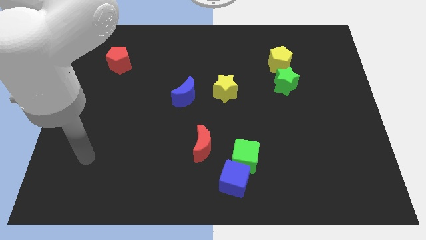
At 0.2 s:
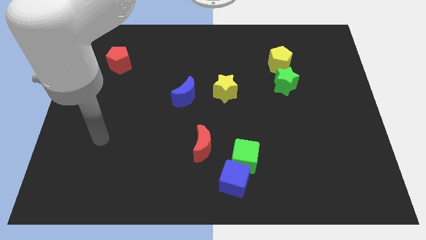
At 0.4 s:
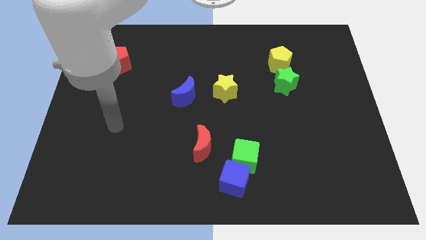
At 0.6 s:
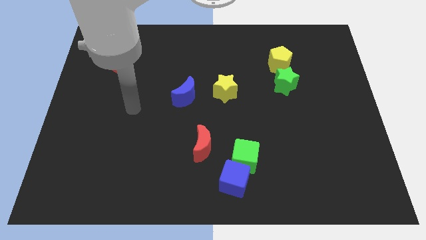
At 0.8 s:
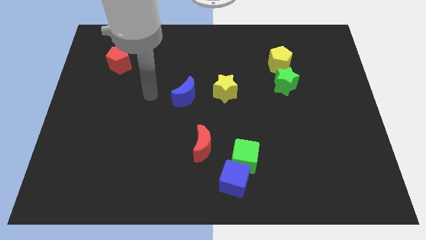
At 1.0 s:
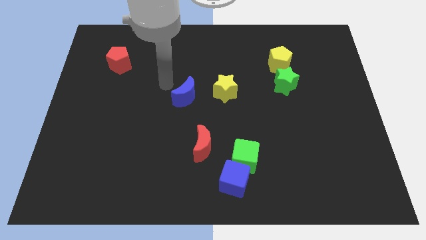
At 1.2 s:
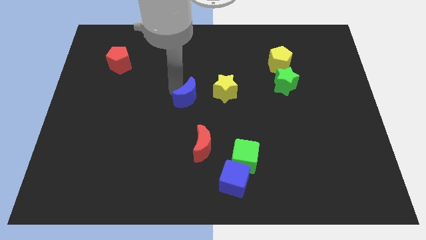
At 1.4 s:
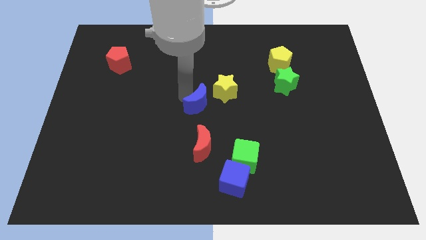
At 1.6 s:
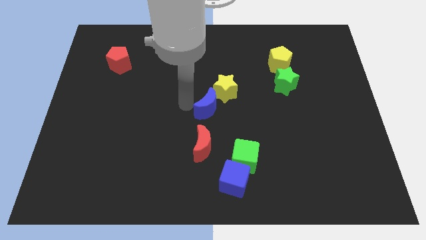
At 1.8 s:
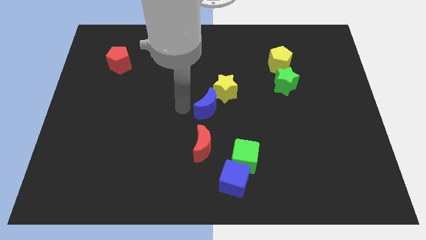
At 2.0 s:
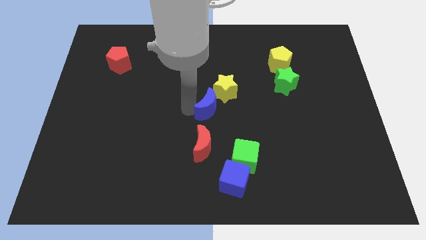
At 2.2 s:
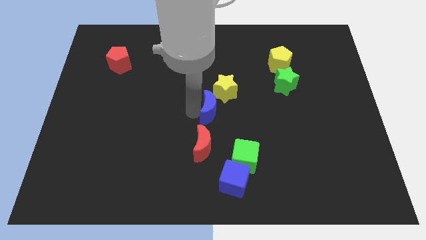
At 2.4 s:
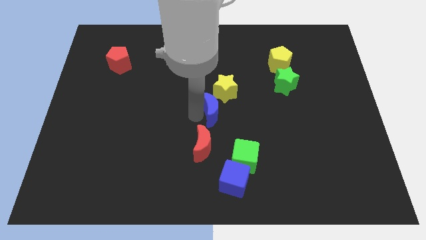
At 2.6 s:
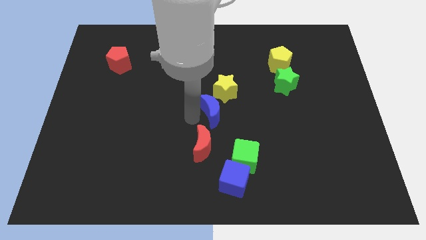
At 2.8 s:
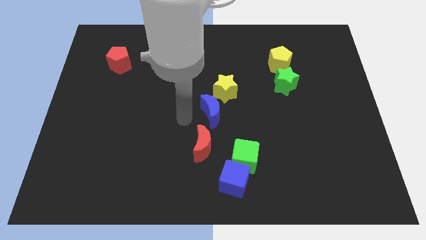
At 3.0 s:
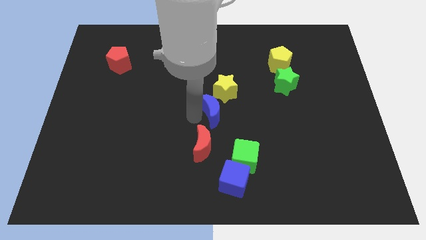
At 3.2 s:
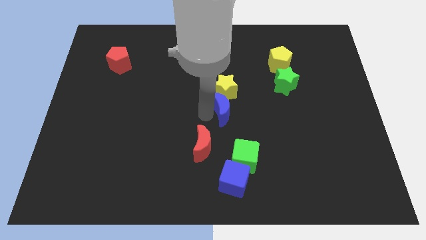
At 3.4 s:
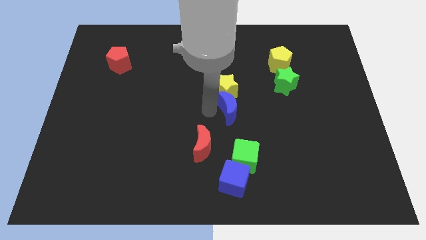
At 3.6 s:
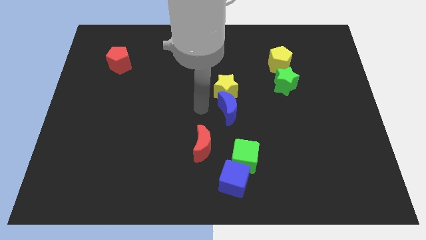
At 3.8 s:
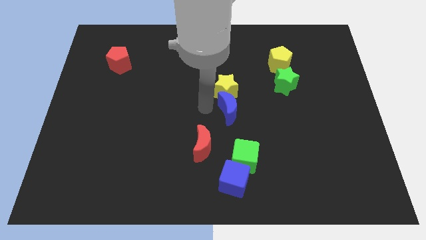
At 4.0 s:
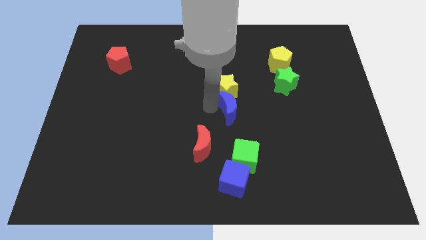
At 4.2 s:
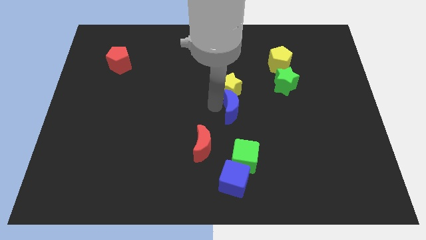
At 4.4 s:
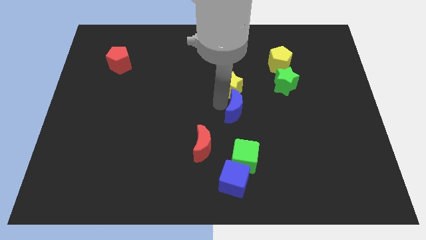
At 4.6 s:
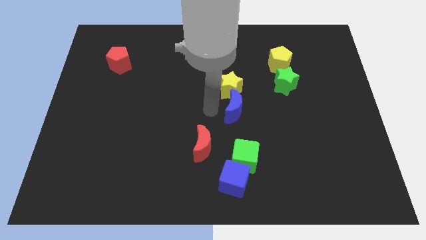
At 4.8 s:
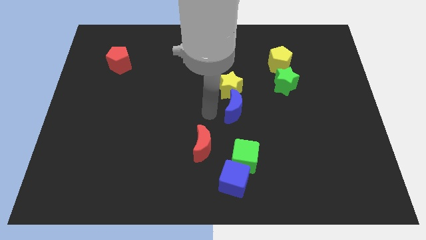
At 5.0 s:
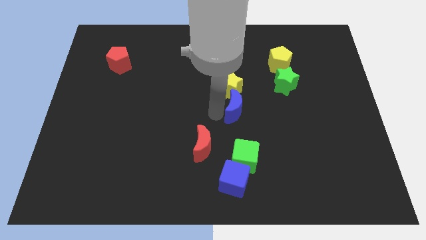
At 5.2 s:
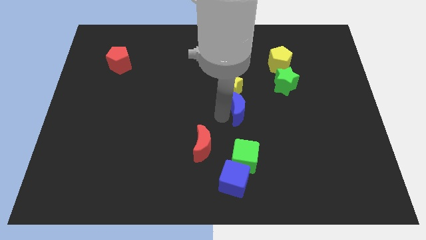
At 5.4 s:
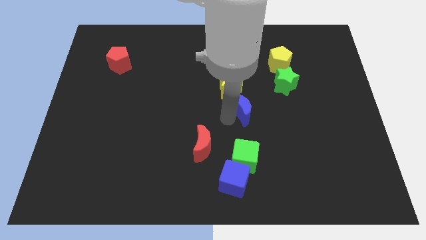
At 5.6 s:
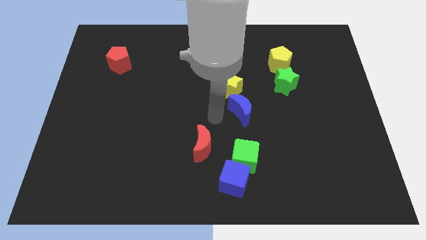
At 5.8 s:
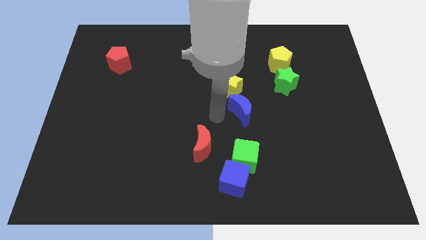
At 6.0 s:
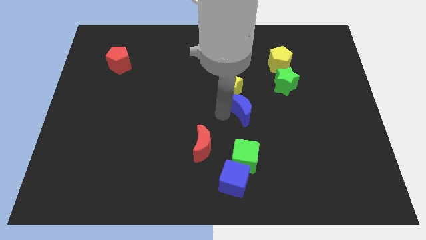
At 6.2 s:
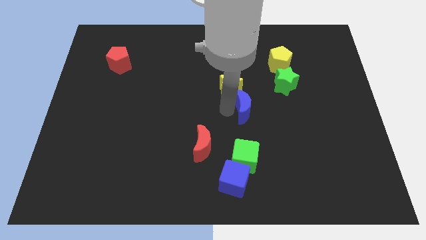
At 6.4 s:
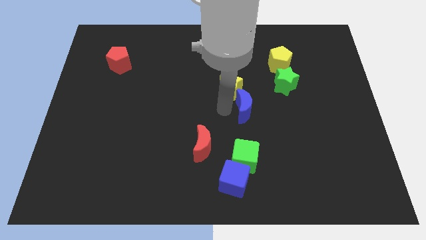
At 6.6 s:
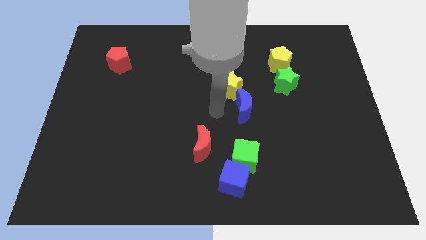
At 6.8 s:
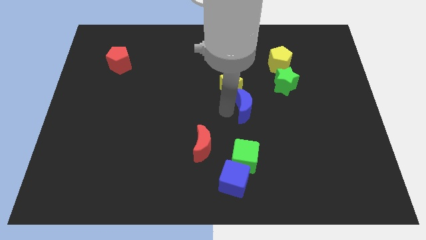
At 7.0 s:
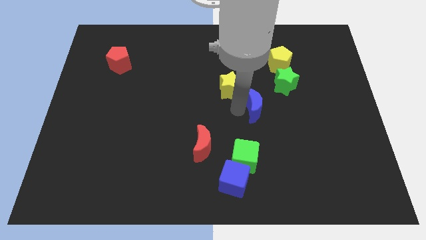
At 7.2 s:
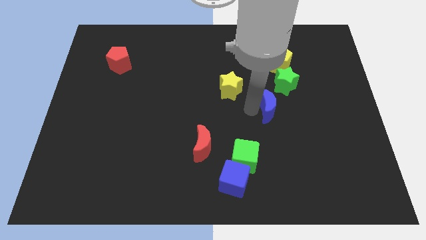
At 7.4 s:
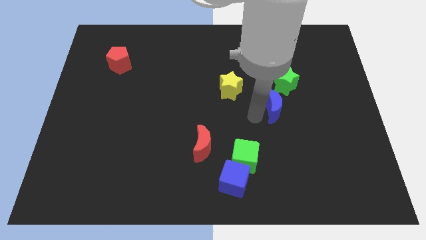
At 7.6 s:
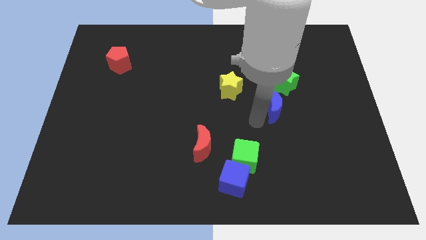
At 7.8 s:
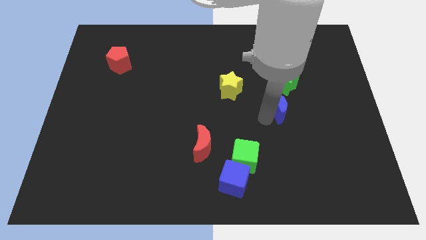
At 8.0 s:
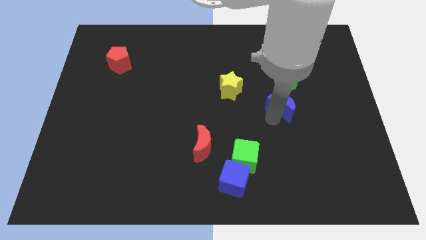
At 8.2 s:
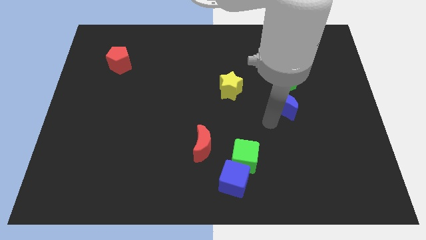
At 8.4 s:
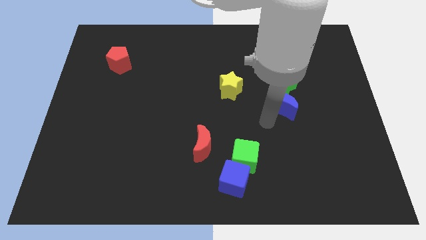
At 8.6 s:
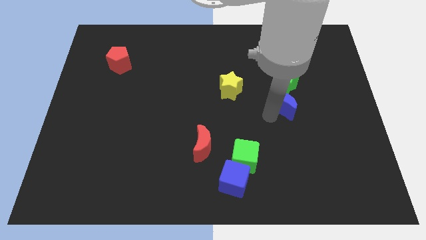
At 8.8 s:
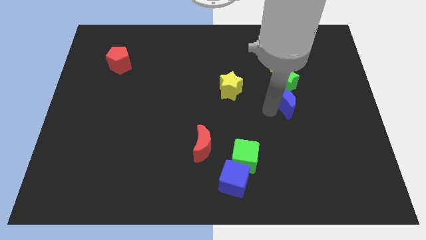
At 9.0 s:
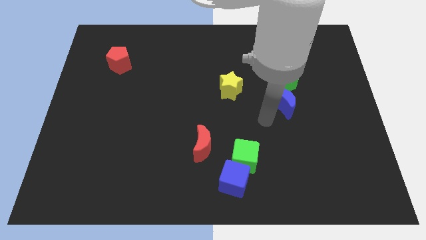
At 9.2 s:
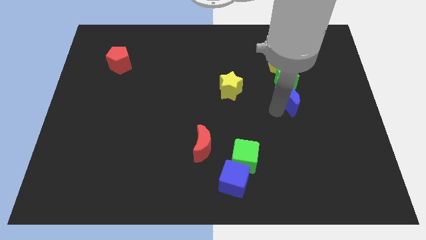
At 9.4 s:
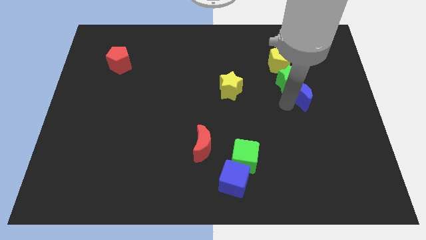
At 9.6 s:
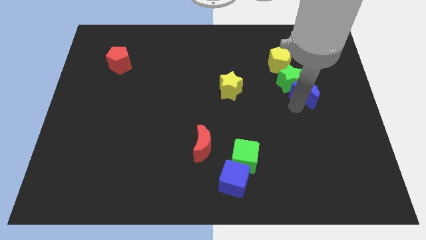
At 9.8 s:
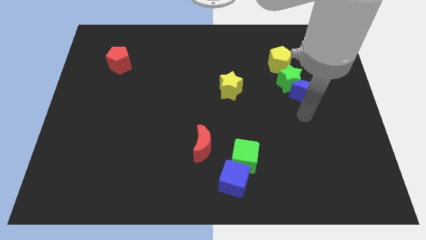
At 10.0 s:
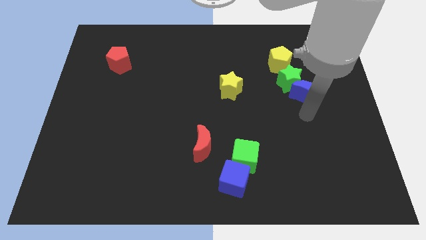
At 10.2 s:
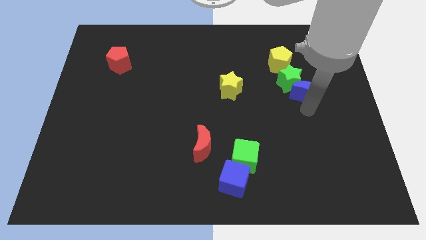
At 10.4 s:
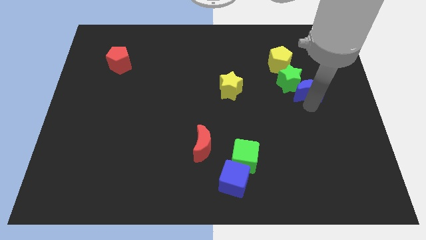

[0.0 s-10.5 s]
move the blue moon to the bottom right side of the yellow pentagon

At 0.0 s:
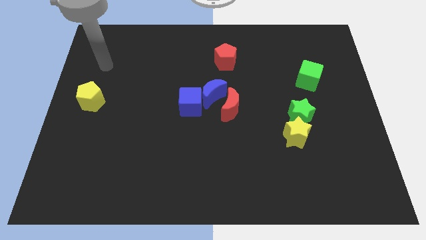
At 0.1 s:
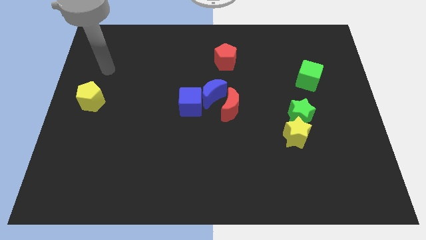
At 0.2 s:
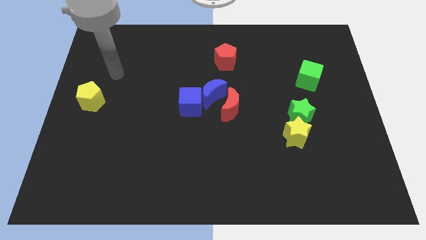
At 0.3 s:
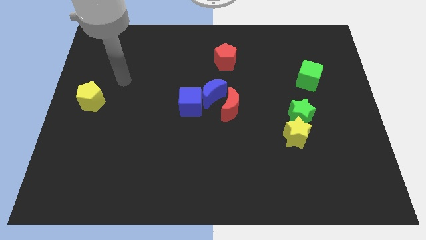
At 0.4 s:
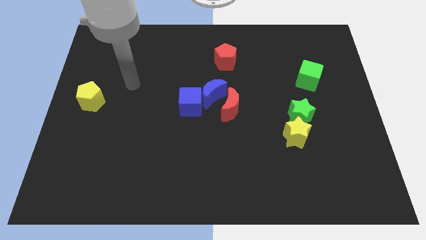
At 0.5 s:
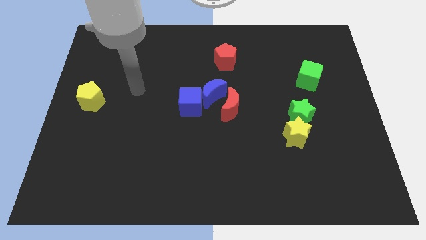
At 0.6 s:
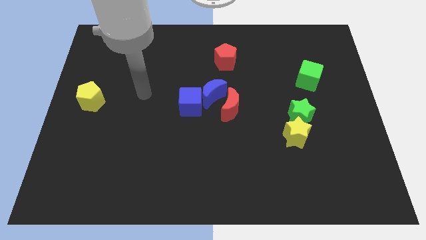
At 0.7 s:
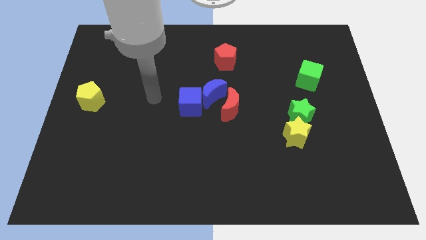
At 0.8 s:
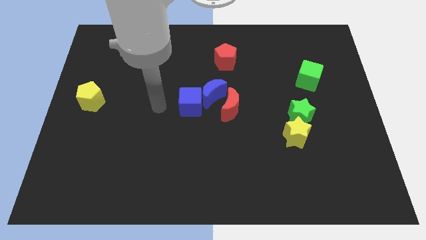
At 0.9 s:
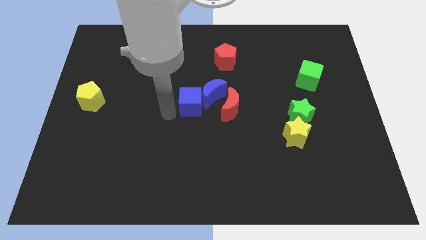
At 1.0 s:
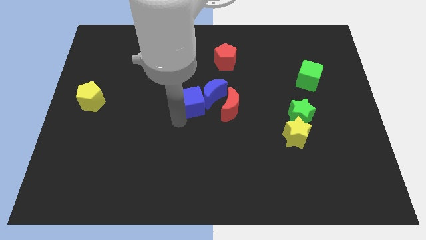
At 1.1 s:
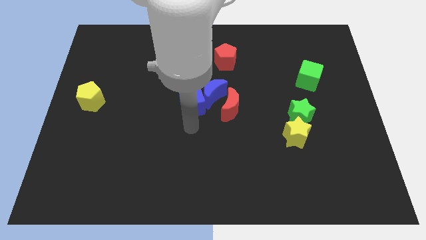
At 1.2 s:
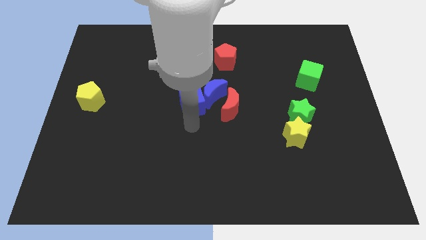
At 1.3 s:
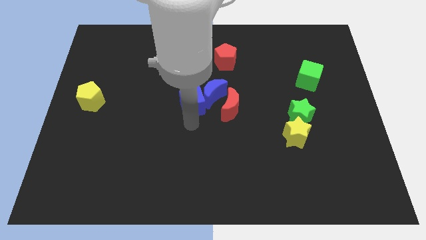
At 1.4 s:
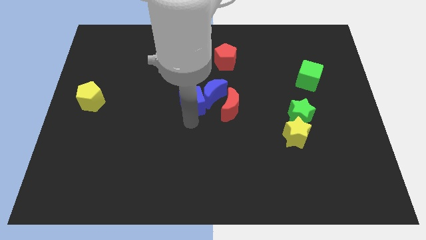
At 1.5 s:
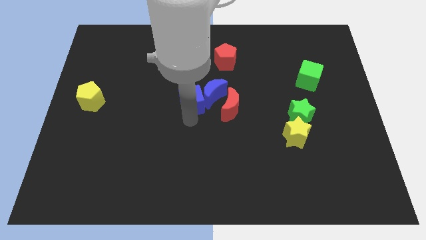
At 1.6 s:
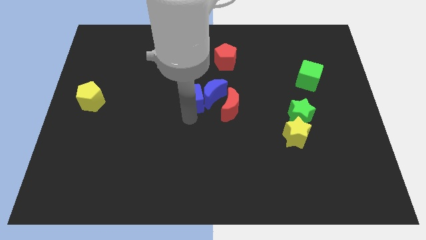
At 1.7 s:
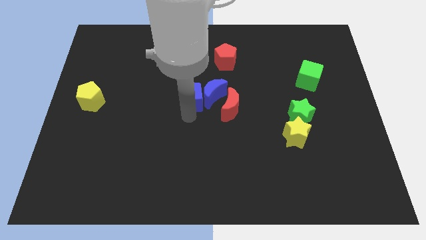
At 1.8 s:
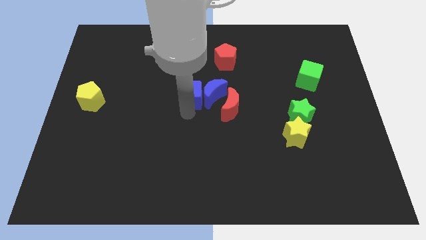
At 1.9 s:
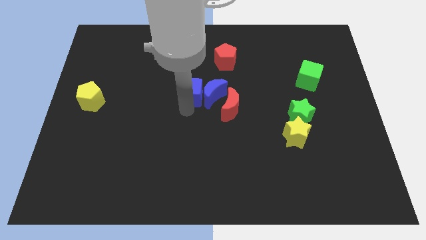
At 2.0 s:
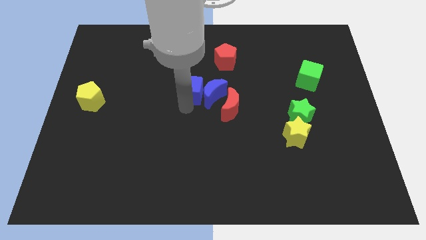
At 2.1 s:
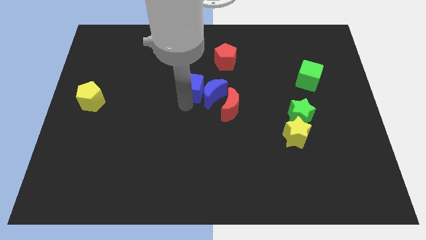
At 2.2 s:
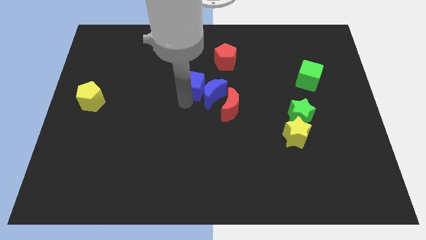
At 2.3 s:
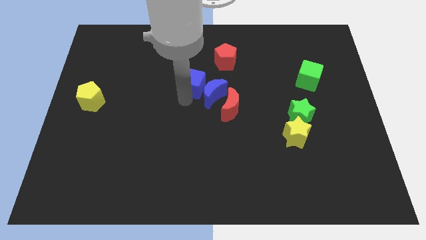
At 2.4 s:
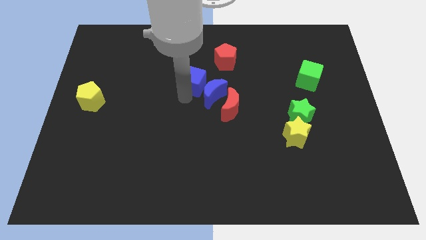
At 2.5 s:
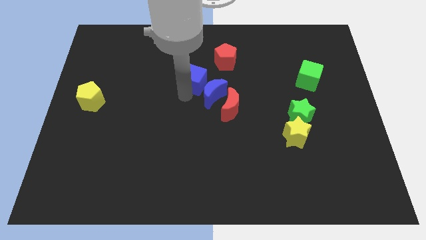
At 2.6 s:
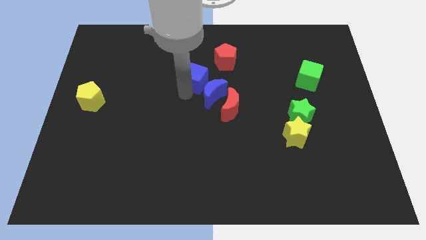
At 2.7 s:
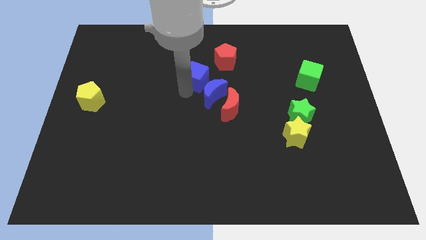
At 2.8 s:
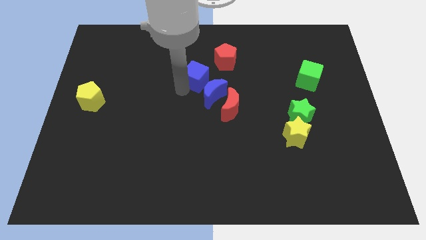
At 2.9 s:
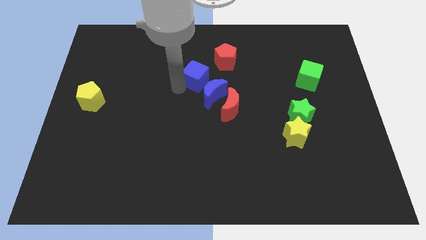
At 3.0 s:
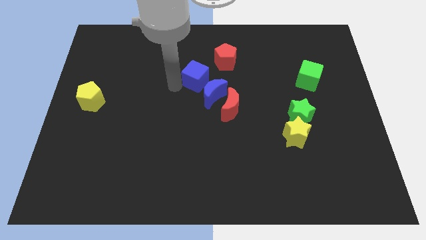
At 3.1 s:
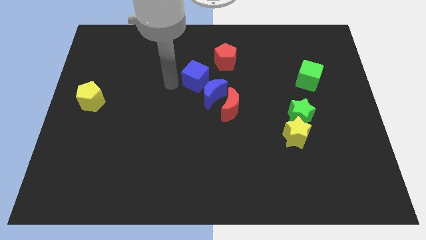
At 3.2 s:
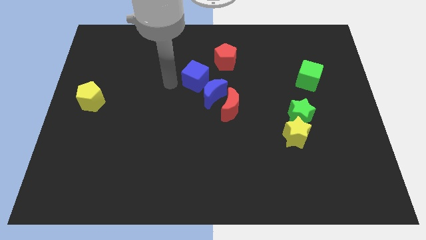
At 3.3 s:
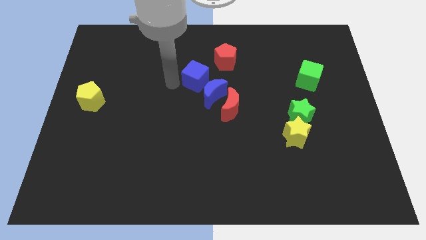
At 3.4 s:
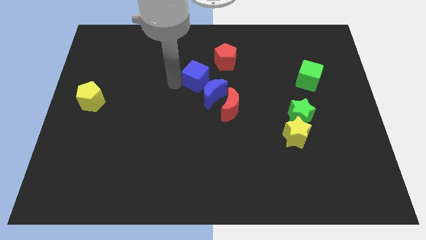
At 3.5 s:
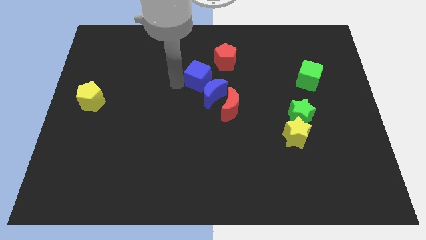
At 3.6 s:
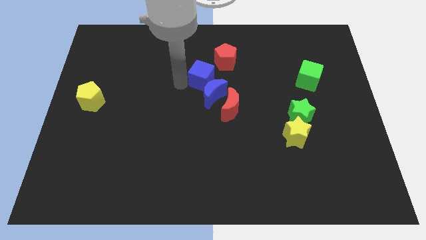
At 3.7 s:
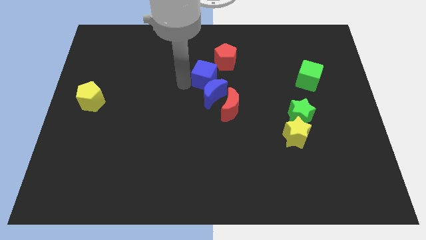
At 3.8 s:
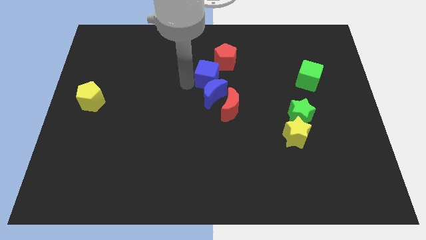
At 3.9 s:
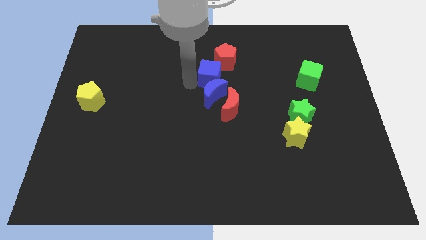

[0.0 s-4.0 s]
slide the blue cube above the red moon
